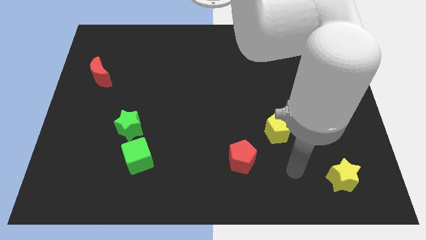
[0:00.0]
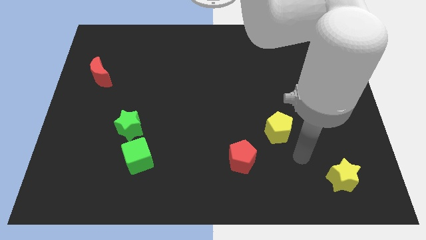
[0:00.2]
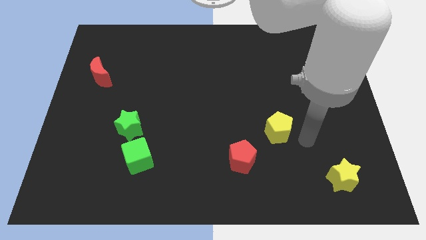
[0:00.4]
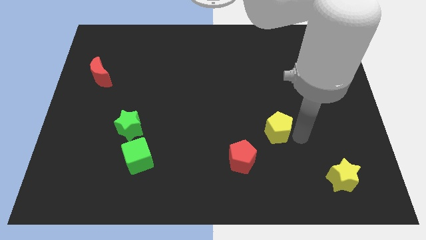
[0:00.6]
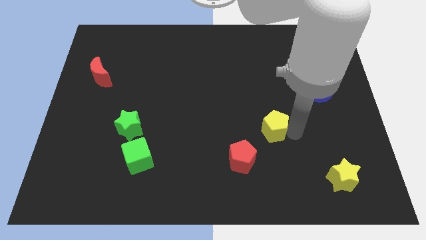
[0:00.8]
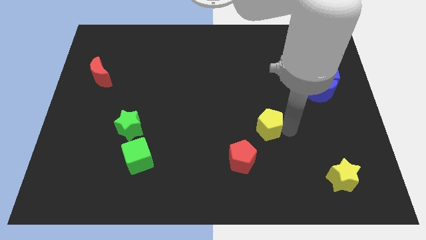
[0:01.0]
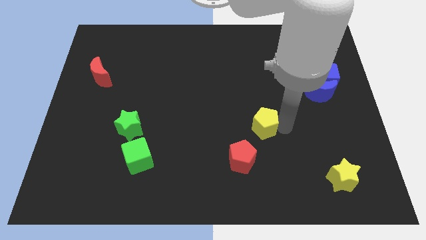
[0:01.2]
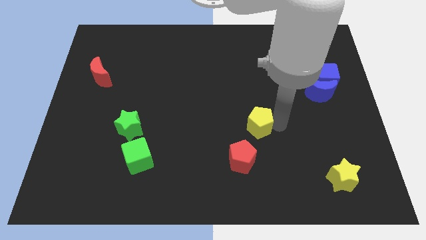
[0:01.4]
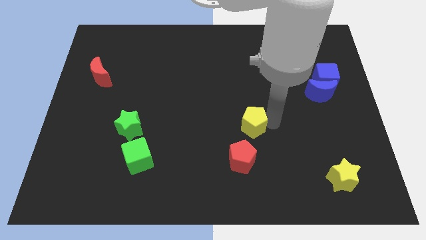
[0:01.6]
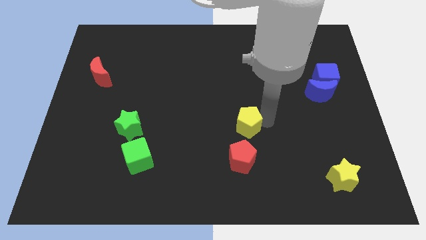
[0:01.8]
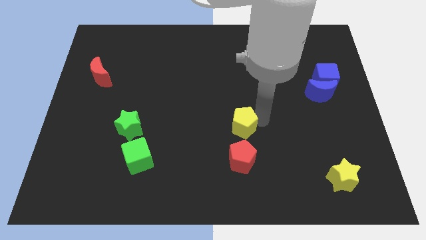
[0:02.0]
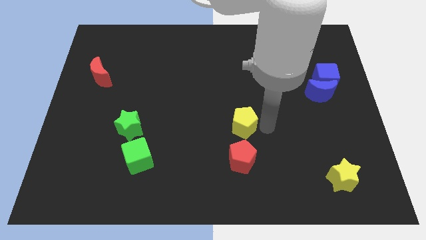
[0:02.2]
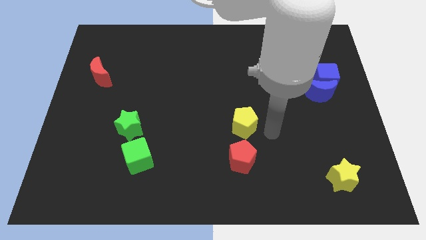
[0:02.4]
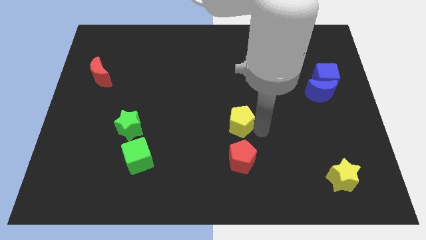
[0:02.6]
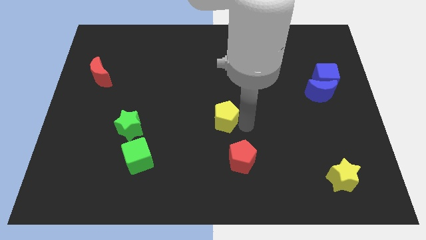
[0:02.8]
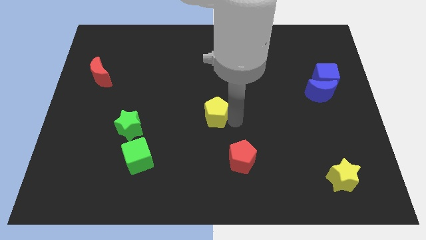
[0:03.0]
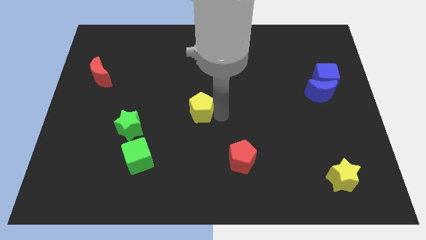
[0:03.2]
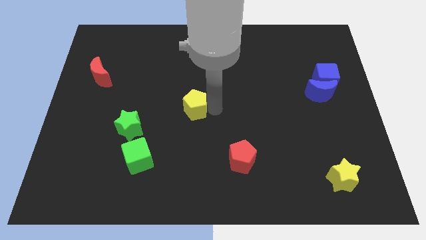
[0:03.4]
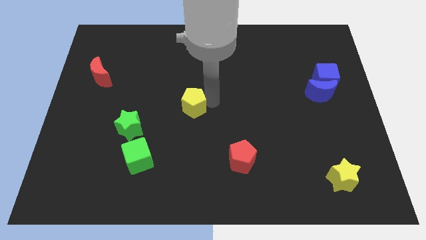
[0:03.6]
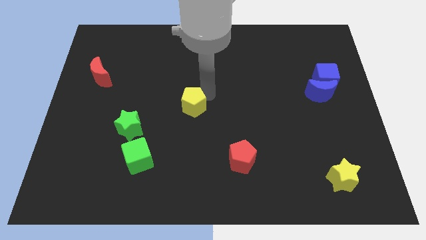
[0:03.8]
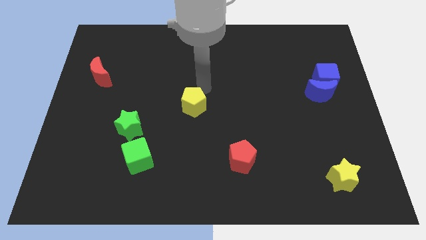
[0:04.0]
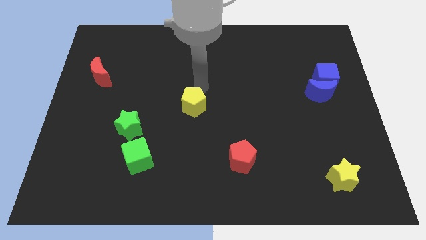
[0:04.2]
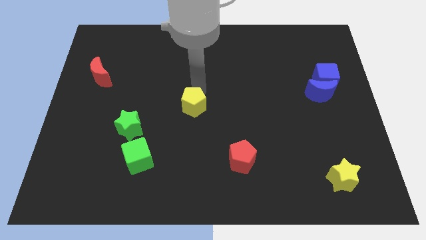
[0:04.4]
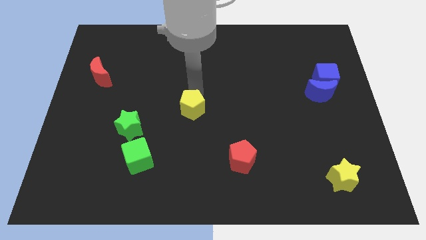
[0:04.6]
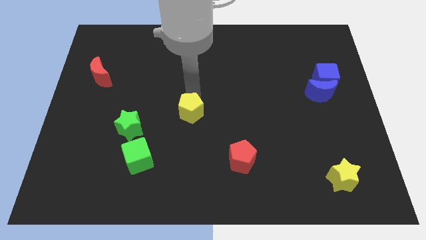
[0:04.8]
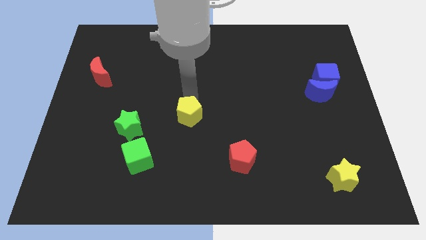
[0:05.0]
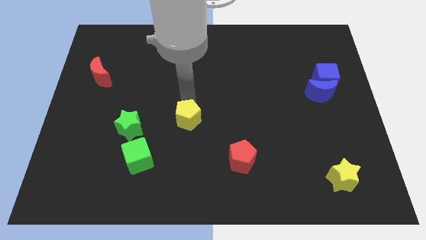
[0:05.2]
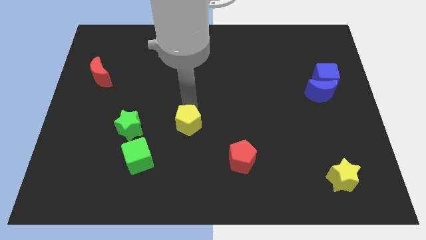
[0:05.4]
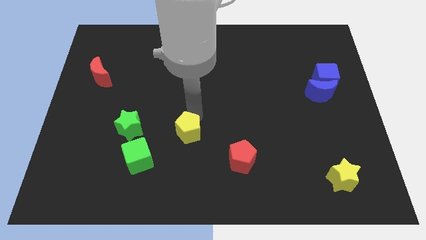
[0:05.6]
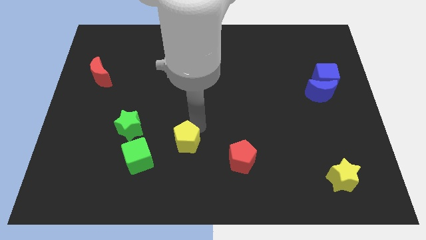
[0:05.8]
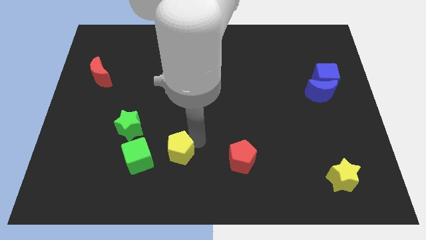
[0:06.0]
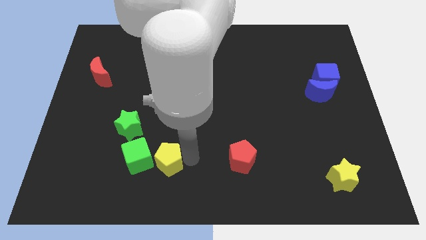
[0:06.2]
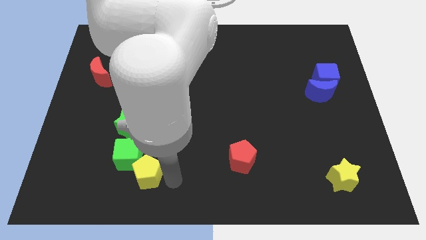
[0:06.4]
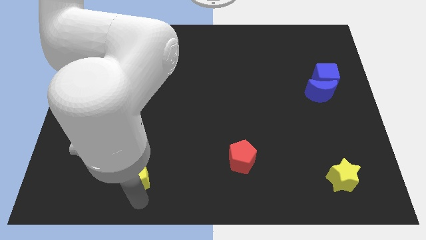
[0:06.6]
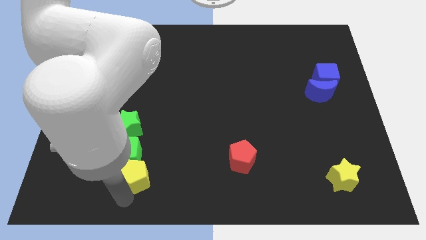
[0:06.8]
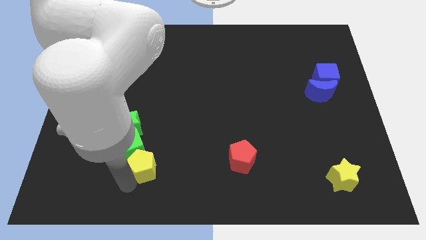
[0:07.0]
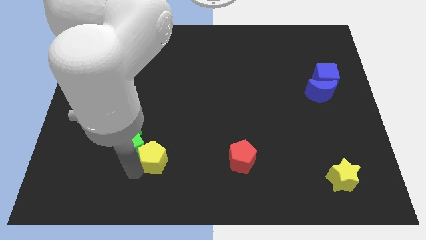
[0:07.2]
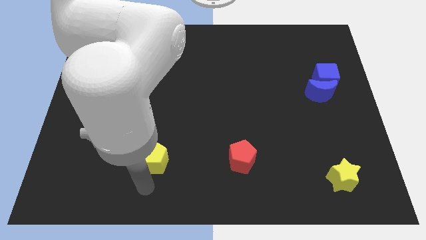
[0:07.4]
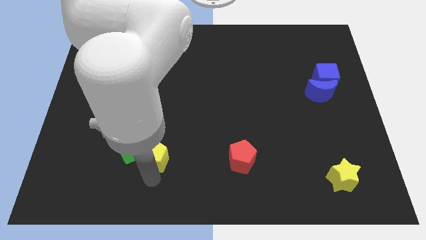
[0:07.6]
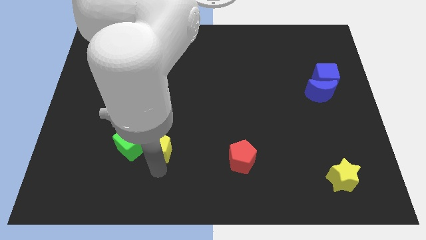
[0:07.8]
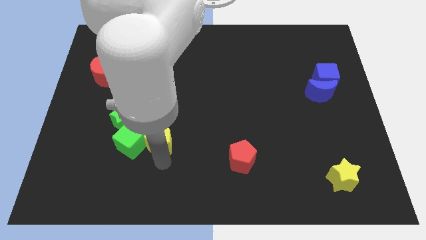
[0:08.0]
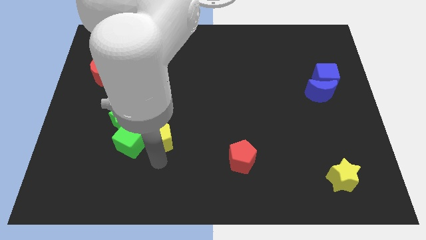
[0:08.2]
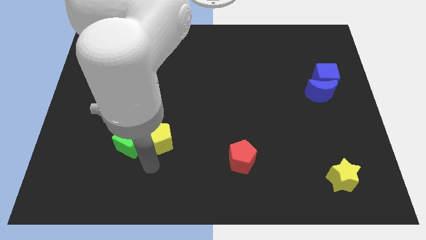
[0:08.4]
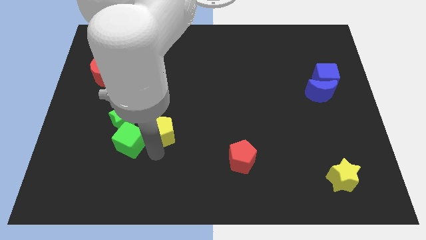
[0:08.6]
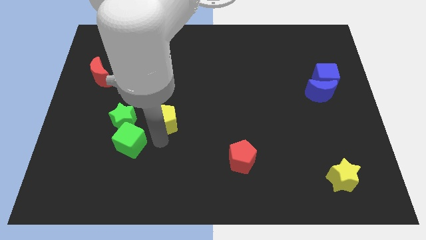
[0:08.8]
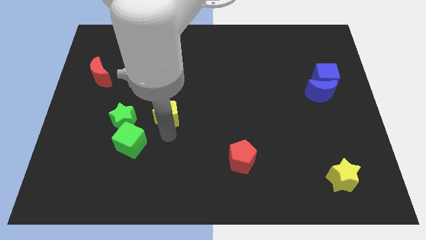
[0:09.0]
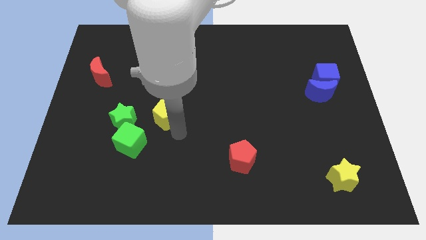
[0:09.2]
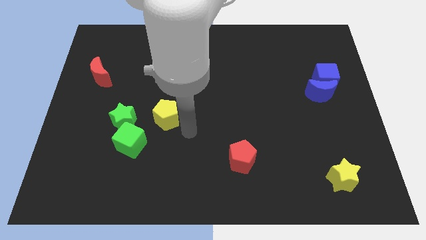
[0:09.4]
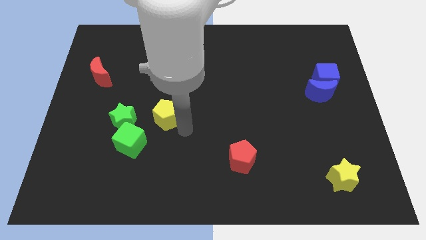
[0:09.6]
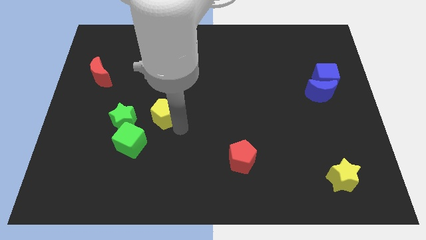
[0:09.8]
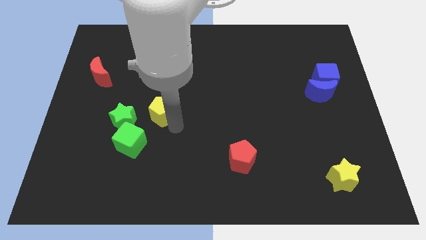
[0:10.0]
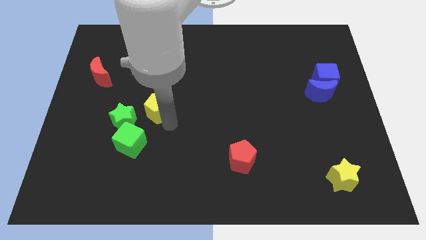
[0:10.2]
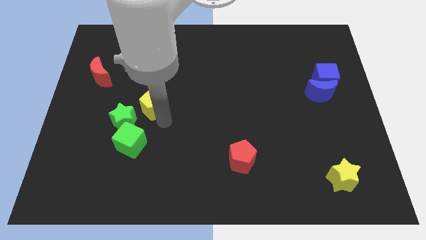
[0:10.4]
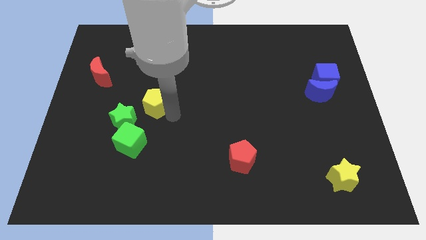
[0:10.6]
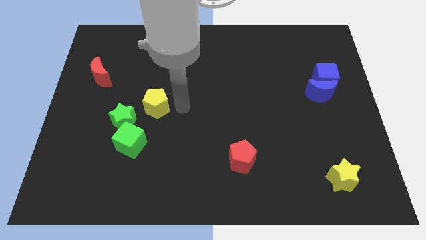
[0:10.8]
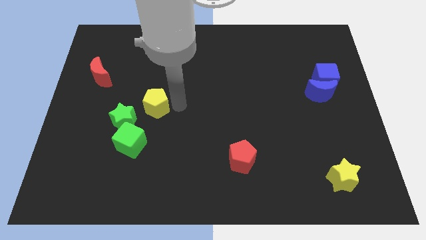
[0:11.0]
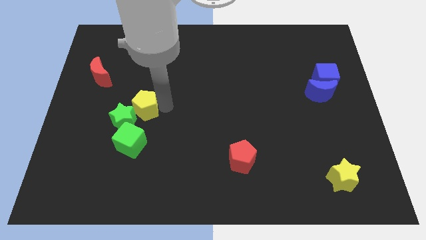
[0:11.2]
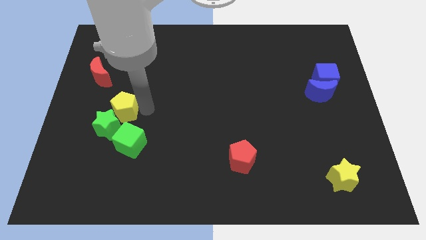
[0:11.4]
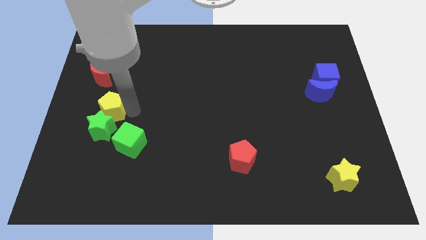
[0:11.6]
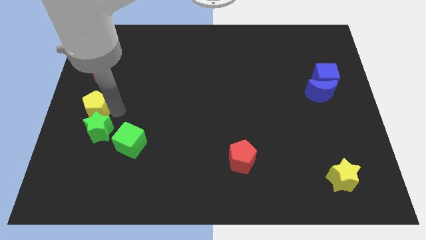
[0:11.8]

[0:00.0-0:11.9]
put the yellow pentagon to the left side
